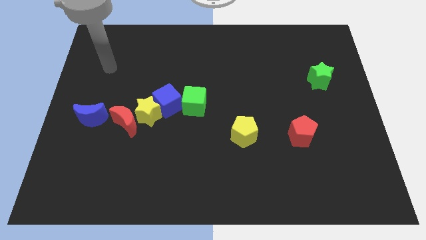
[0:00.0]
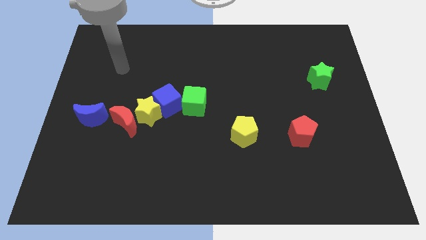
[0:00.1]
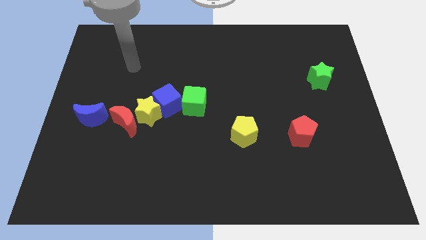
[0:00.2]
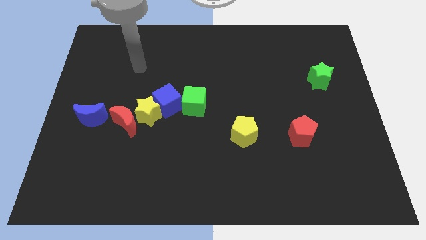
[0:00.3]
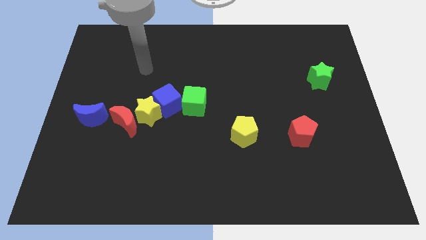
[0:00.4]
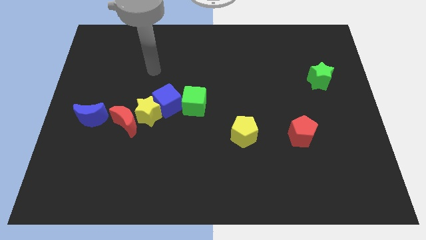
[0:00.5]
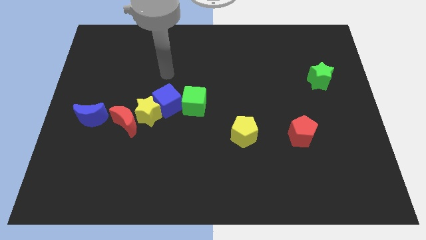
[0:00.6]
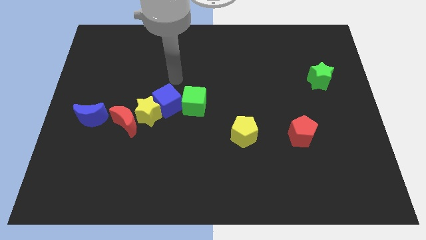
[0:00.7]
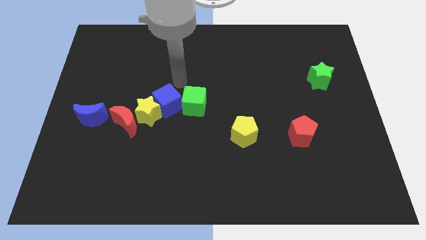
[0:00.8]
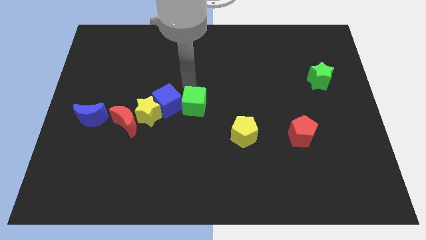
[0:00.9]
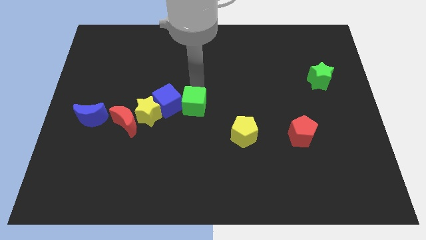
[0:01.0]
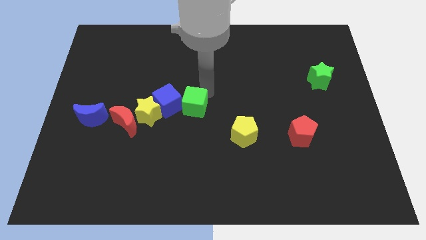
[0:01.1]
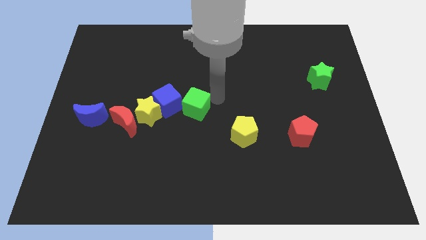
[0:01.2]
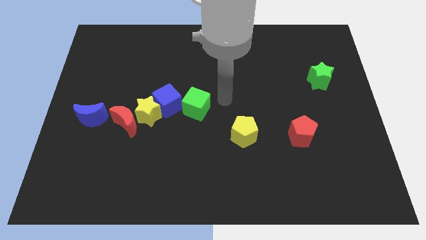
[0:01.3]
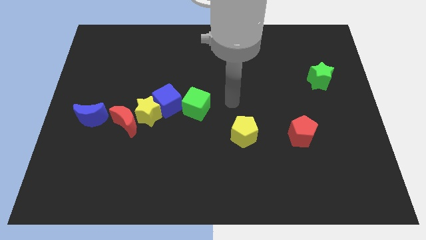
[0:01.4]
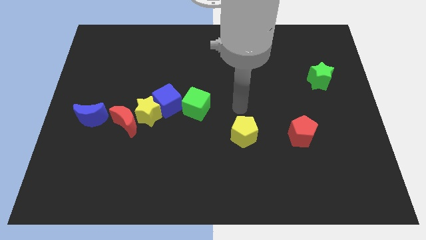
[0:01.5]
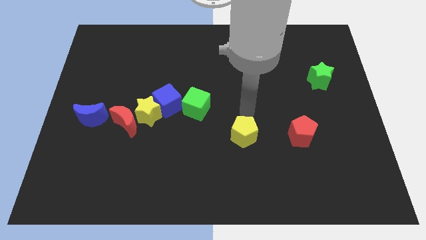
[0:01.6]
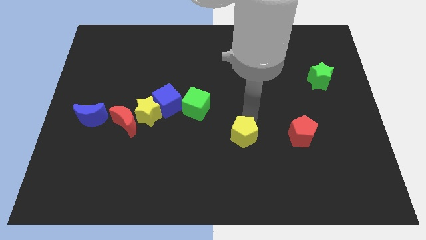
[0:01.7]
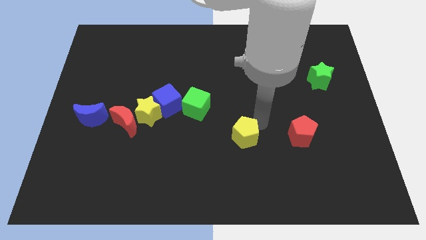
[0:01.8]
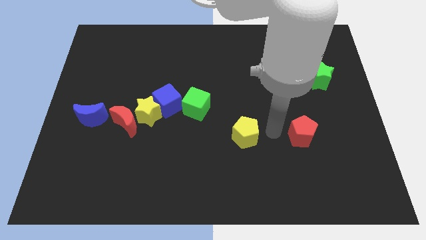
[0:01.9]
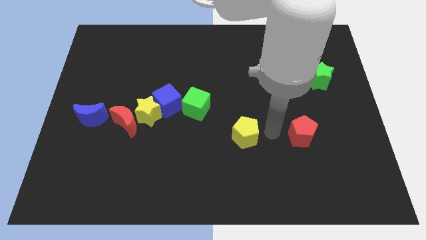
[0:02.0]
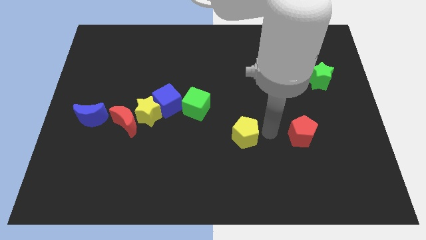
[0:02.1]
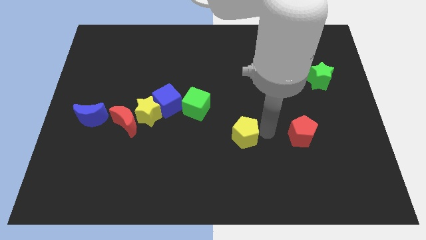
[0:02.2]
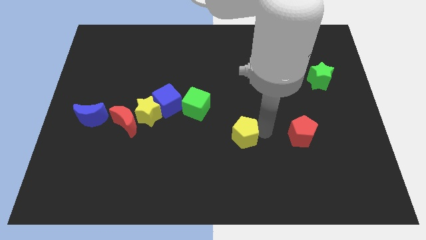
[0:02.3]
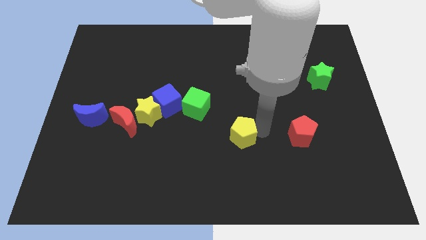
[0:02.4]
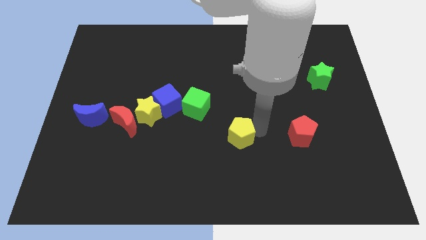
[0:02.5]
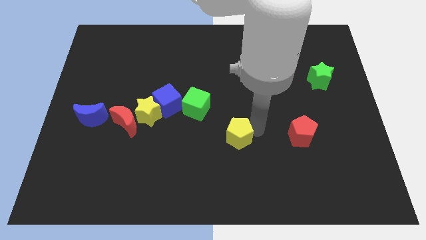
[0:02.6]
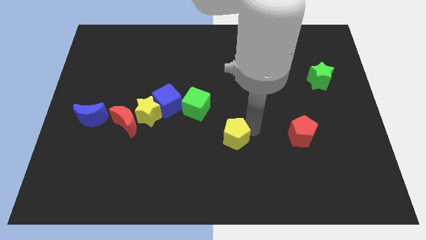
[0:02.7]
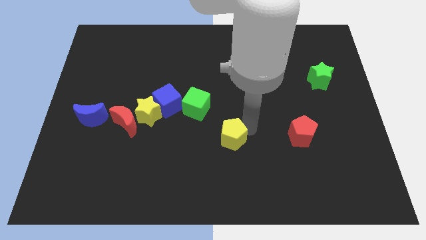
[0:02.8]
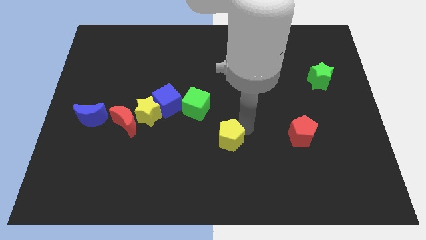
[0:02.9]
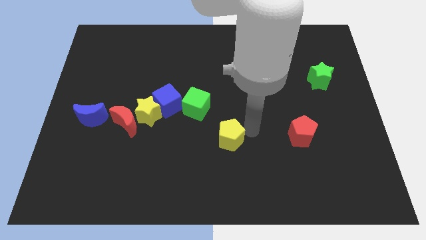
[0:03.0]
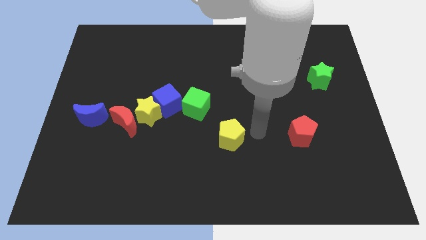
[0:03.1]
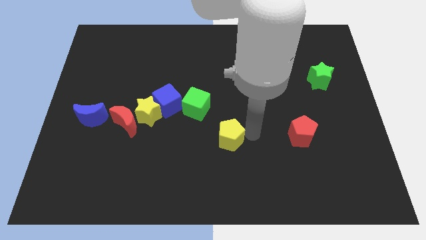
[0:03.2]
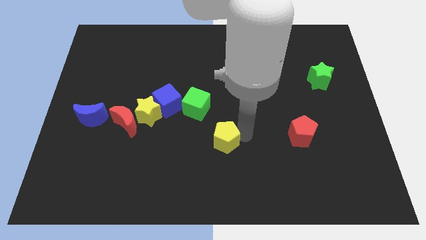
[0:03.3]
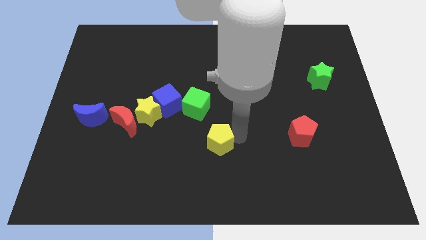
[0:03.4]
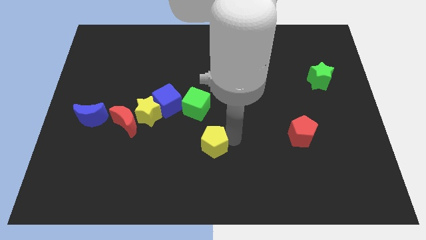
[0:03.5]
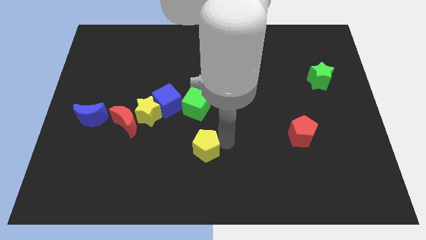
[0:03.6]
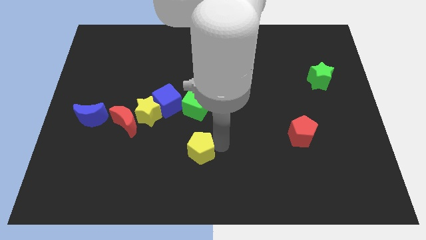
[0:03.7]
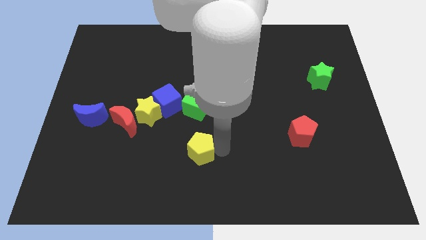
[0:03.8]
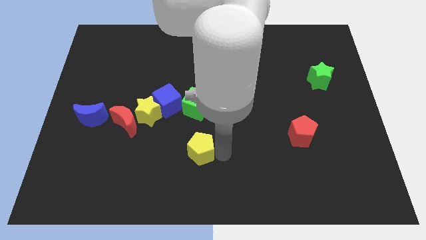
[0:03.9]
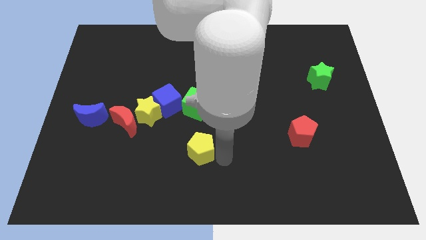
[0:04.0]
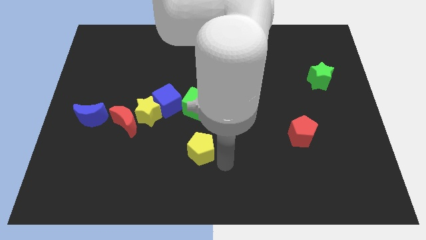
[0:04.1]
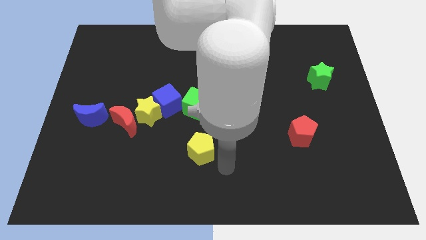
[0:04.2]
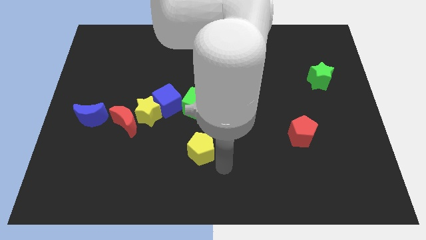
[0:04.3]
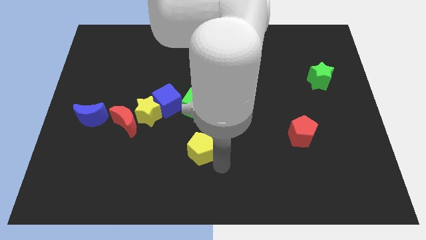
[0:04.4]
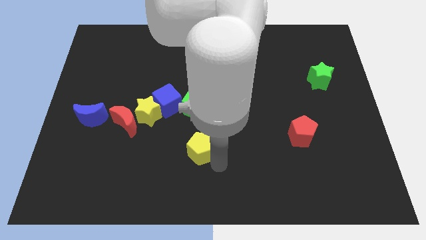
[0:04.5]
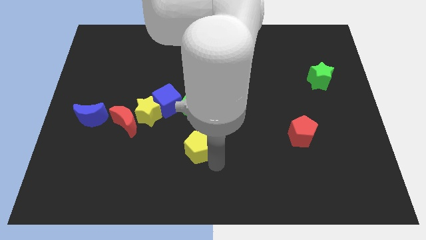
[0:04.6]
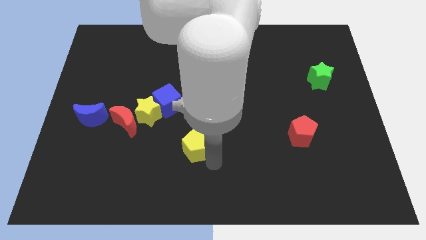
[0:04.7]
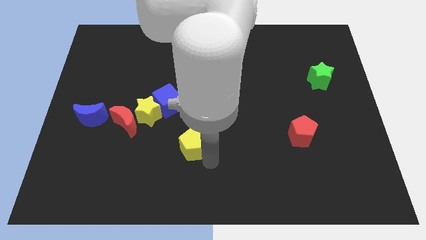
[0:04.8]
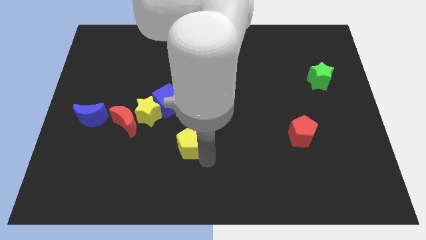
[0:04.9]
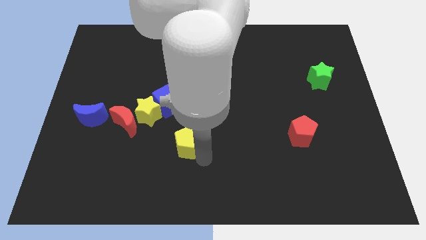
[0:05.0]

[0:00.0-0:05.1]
slide the yellow pentagon diagonally down and to the right of the yellow star
